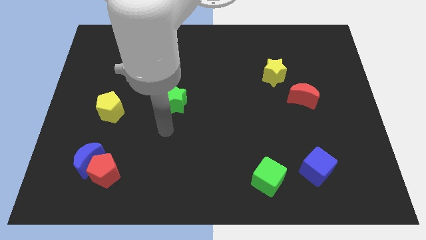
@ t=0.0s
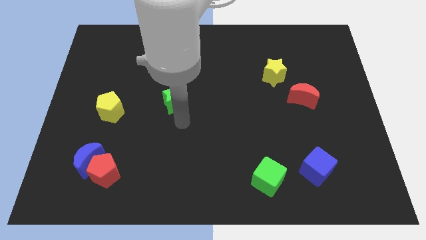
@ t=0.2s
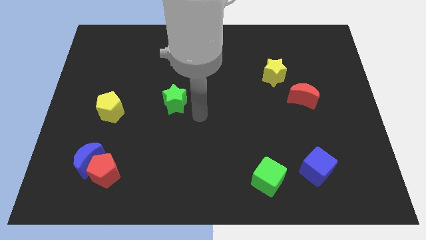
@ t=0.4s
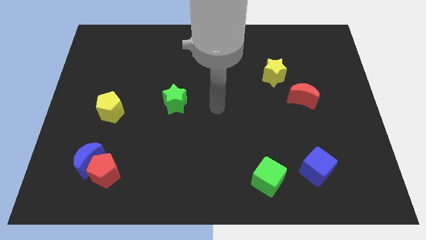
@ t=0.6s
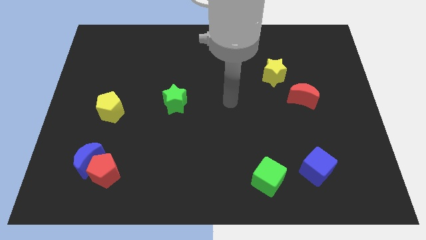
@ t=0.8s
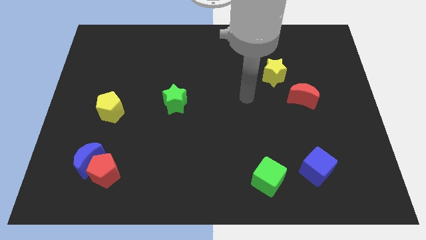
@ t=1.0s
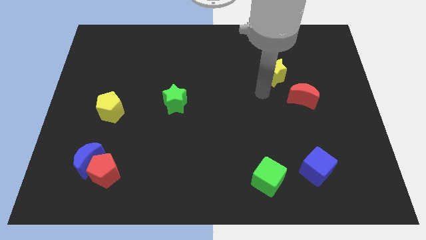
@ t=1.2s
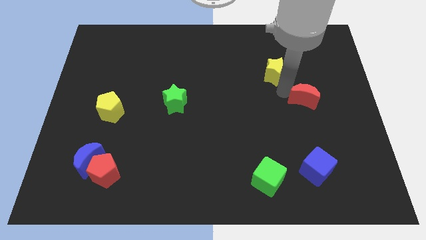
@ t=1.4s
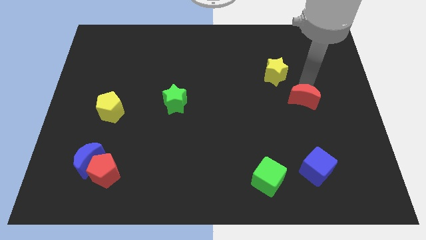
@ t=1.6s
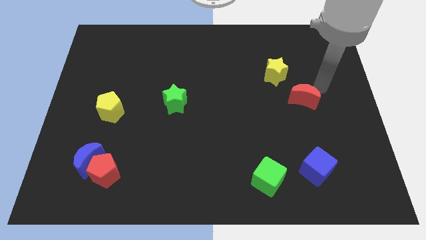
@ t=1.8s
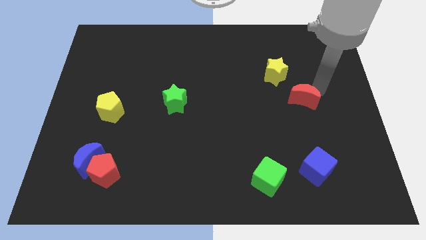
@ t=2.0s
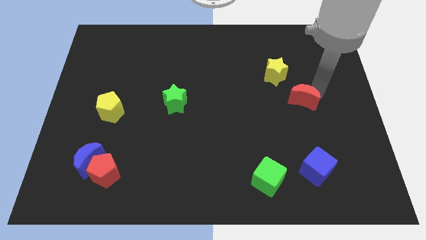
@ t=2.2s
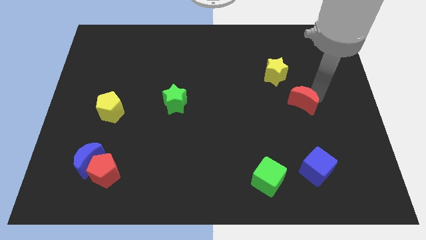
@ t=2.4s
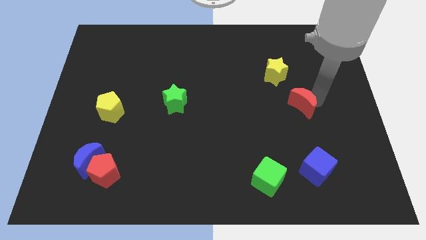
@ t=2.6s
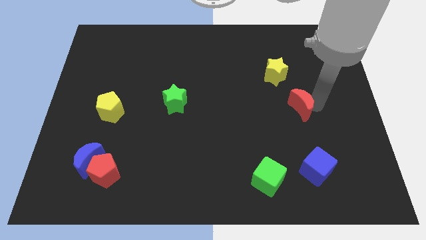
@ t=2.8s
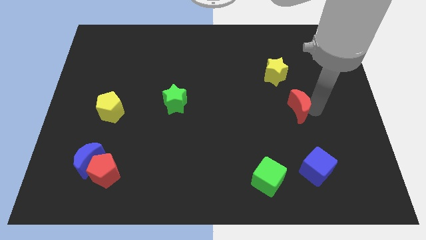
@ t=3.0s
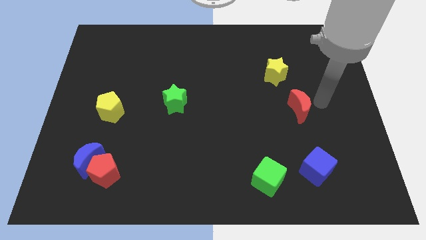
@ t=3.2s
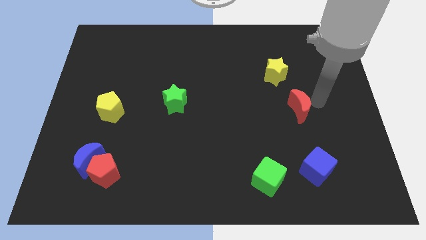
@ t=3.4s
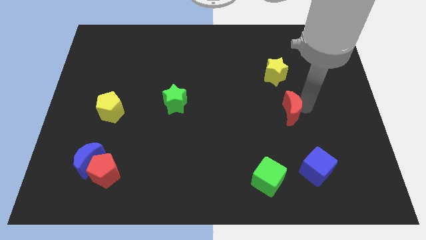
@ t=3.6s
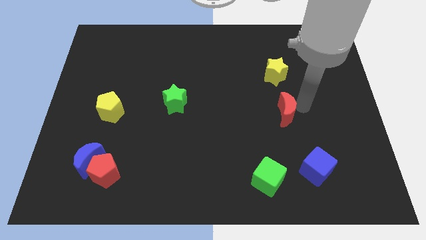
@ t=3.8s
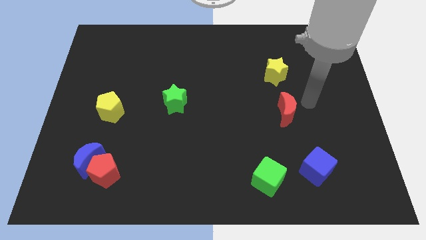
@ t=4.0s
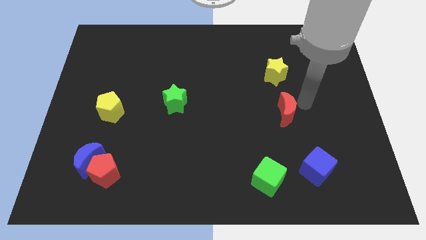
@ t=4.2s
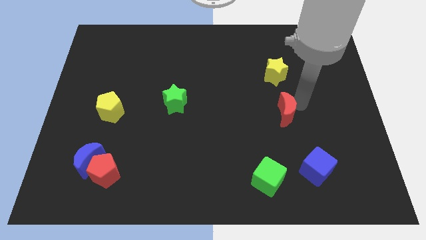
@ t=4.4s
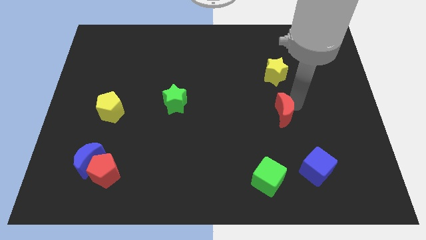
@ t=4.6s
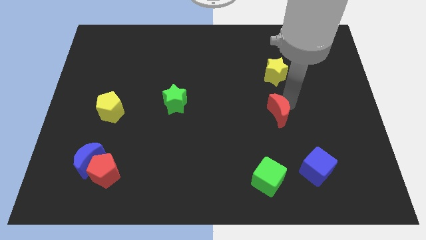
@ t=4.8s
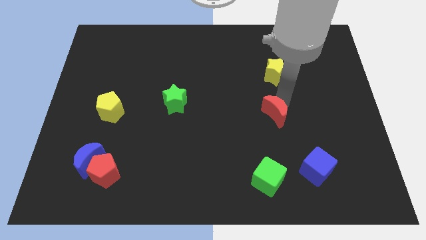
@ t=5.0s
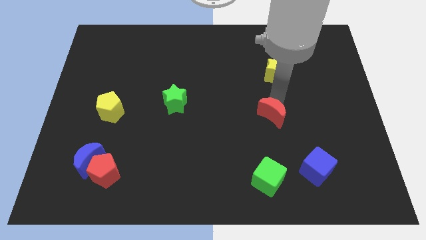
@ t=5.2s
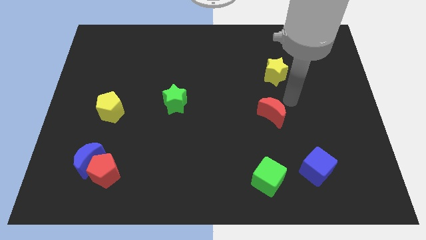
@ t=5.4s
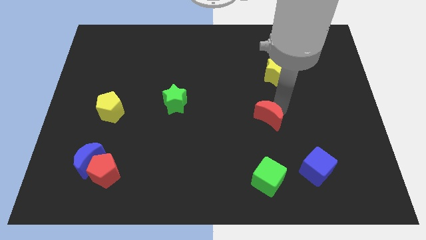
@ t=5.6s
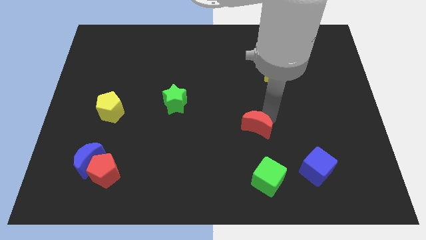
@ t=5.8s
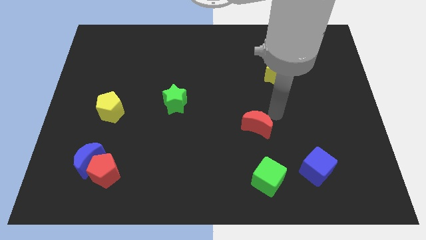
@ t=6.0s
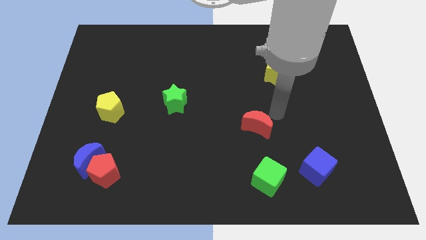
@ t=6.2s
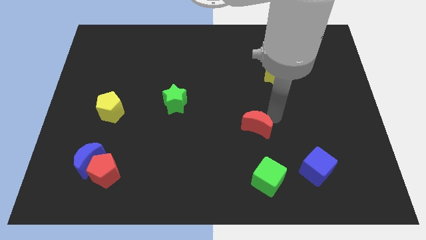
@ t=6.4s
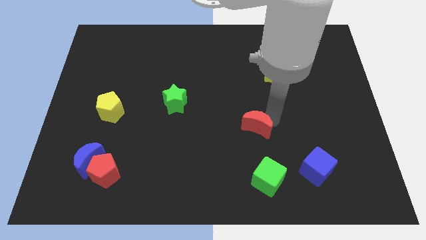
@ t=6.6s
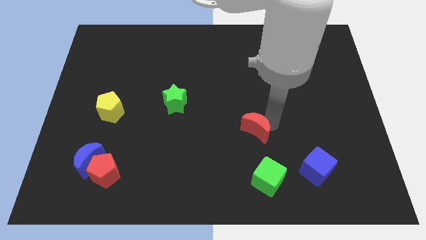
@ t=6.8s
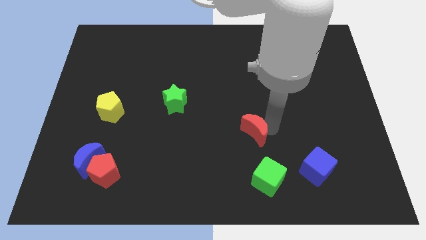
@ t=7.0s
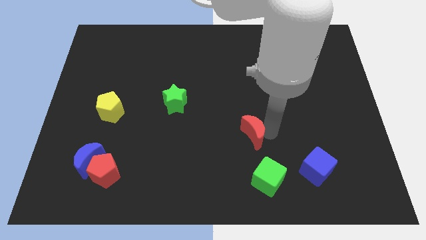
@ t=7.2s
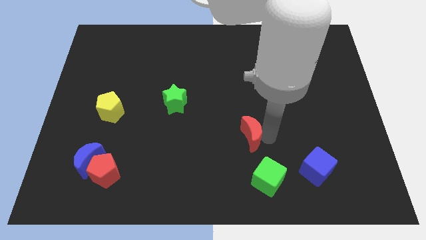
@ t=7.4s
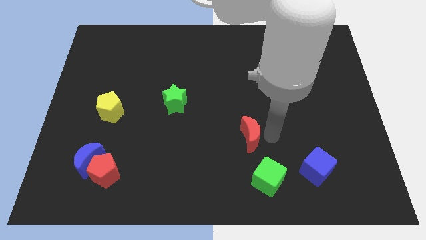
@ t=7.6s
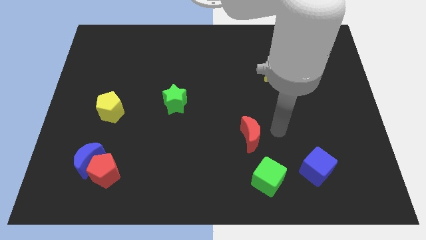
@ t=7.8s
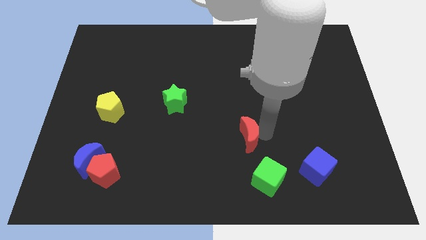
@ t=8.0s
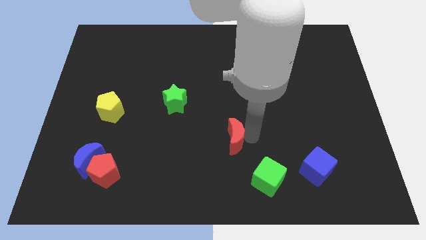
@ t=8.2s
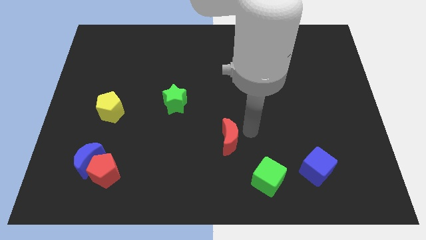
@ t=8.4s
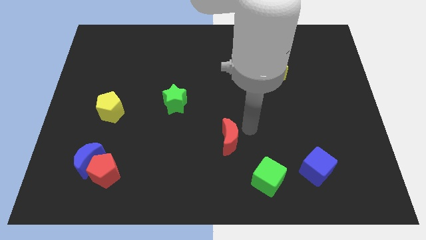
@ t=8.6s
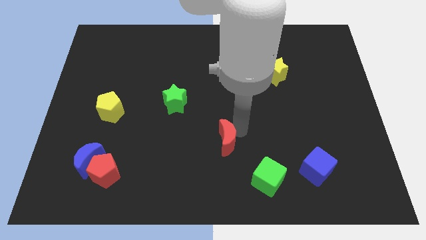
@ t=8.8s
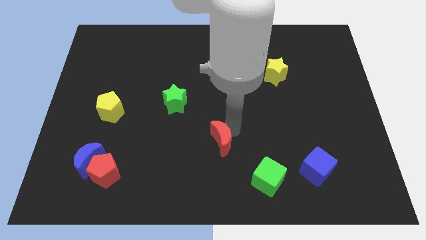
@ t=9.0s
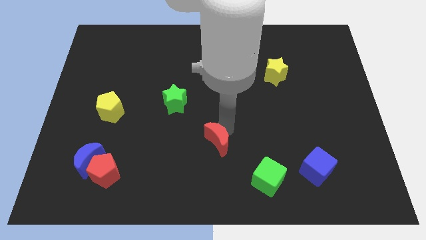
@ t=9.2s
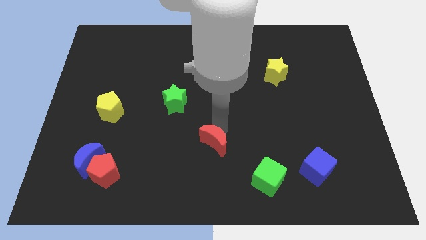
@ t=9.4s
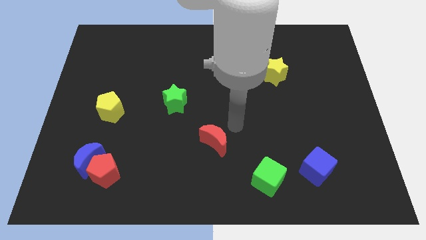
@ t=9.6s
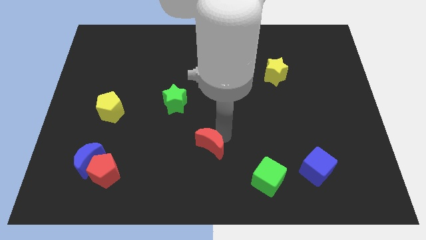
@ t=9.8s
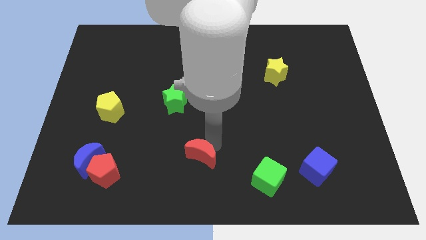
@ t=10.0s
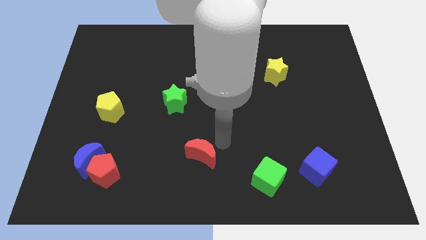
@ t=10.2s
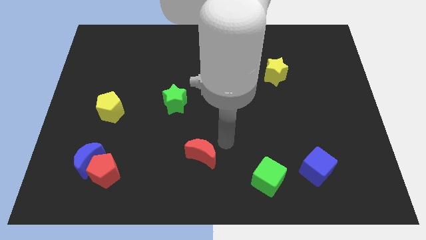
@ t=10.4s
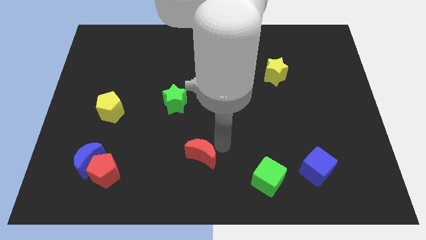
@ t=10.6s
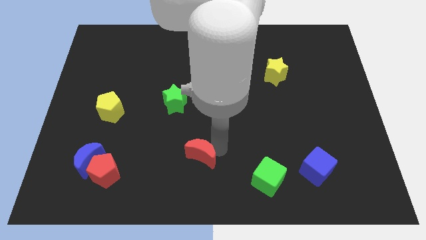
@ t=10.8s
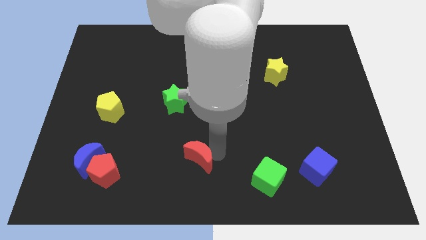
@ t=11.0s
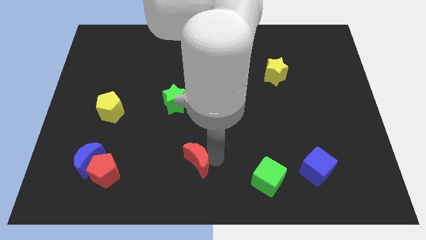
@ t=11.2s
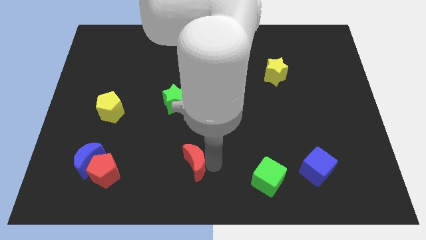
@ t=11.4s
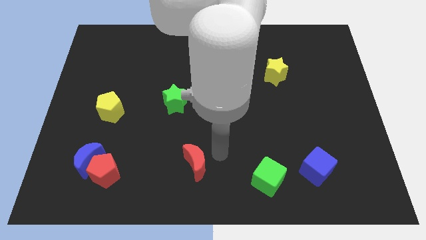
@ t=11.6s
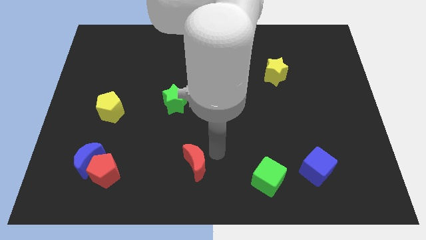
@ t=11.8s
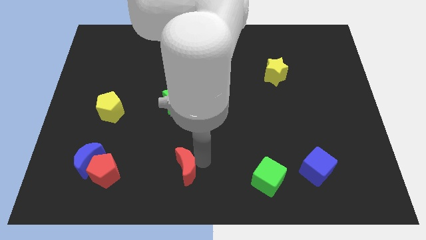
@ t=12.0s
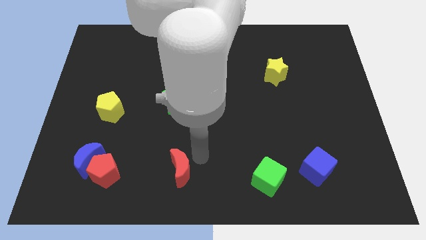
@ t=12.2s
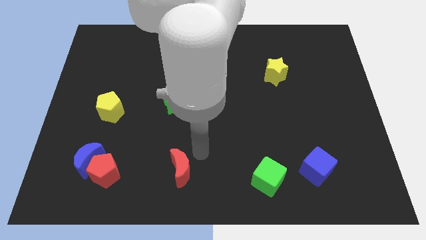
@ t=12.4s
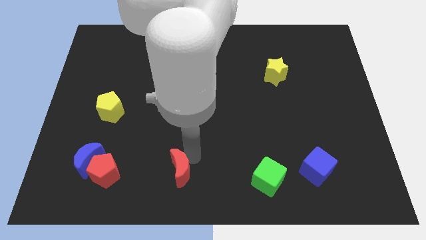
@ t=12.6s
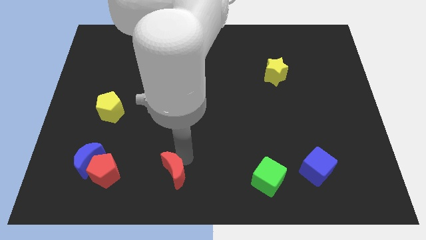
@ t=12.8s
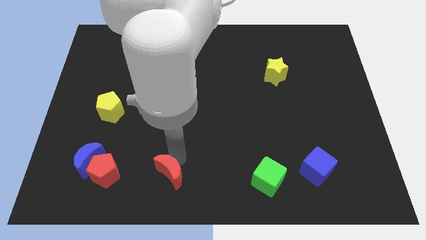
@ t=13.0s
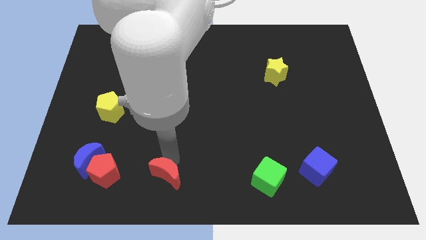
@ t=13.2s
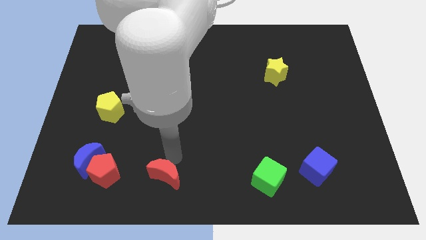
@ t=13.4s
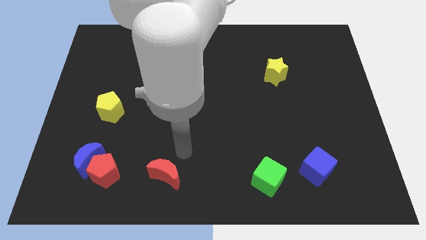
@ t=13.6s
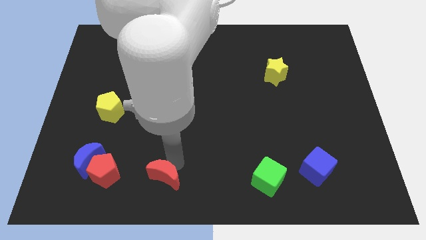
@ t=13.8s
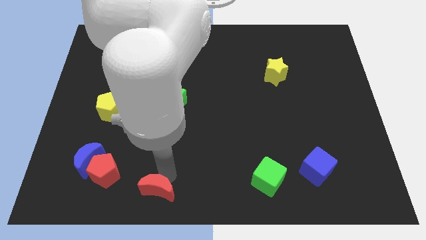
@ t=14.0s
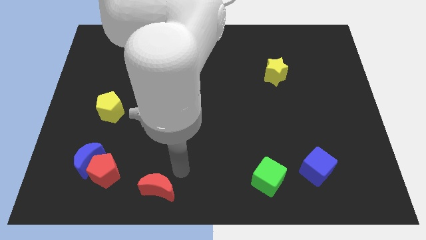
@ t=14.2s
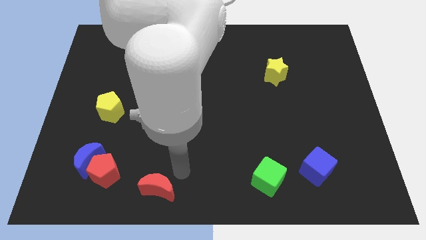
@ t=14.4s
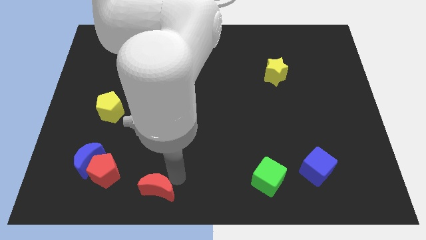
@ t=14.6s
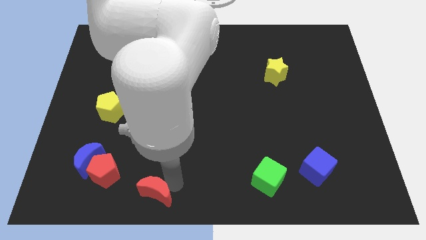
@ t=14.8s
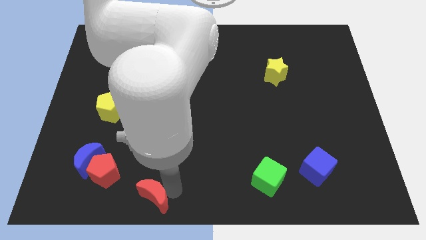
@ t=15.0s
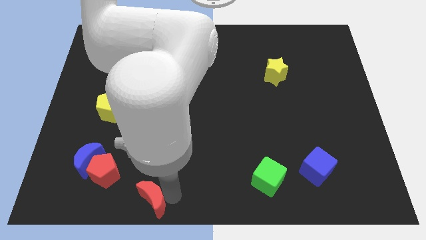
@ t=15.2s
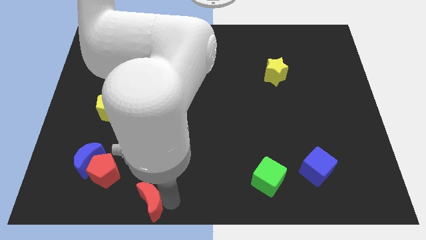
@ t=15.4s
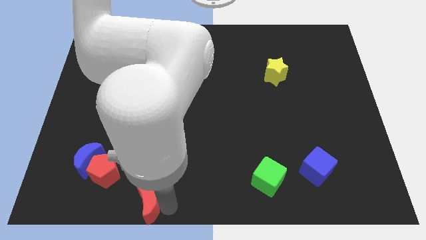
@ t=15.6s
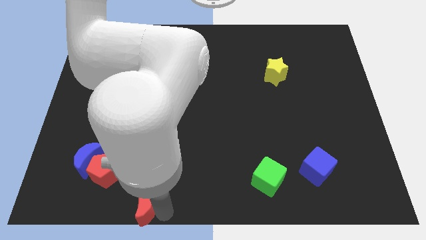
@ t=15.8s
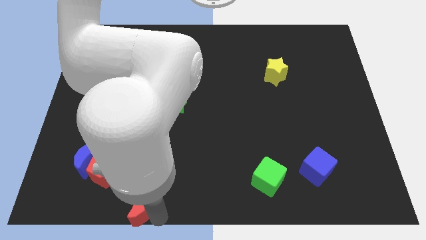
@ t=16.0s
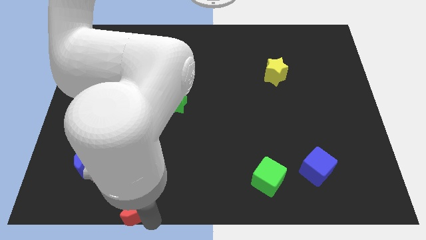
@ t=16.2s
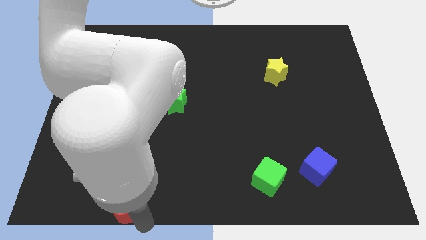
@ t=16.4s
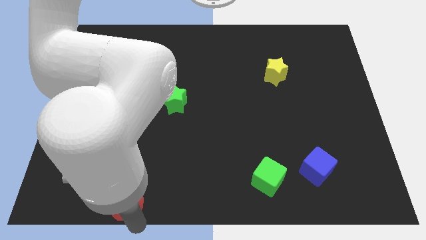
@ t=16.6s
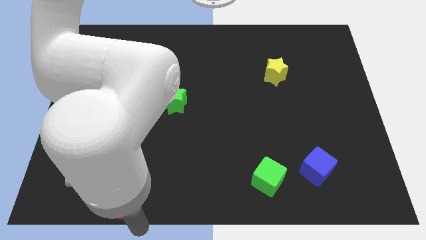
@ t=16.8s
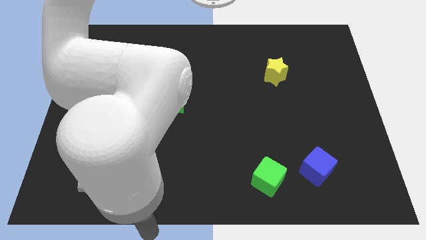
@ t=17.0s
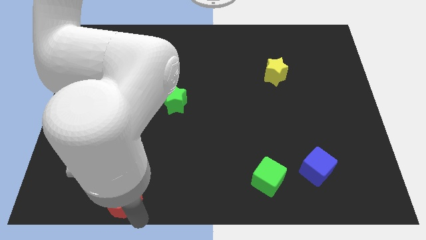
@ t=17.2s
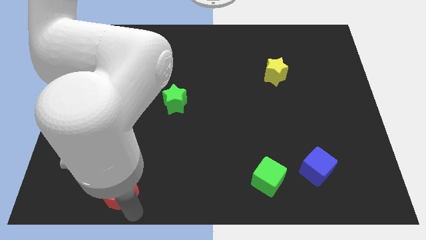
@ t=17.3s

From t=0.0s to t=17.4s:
move the red moon to the bottom right side of the blue moon
